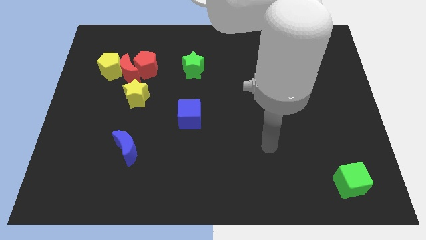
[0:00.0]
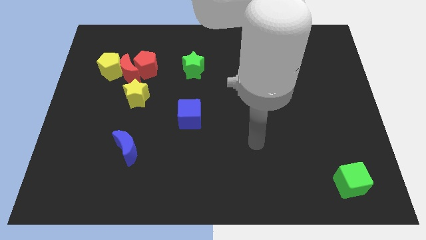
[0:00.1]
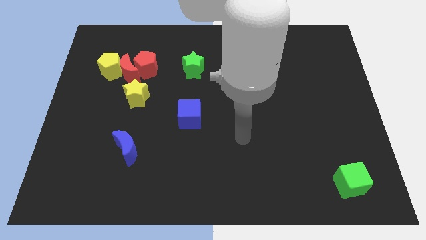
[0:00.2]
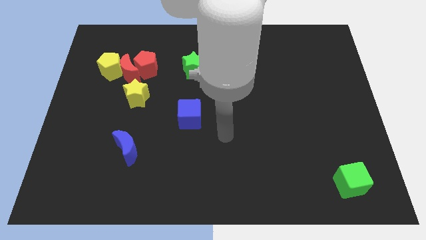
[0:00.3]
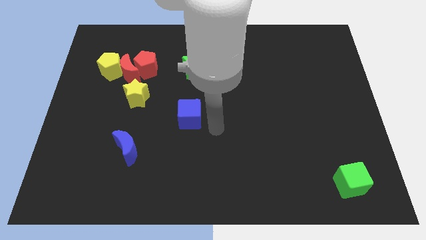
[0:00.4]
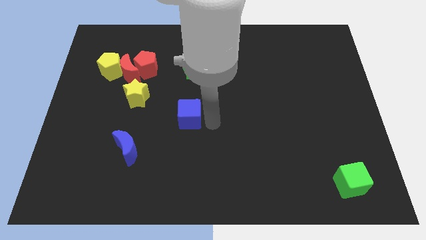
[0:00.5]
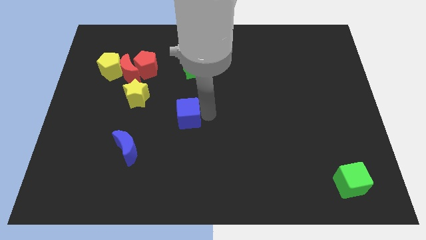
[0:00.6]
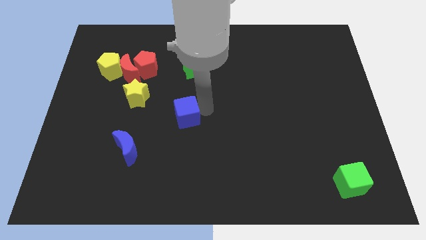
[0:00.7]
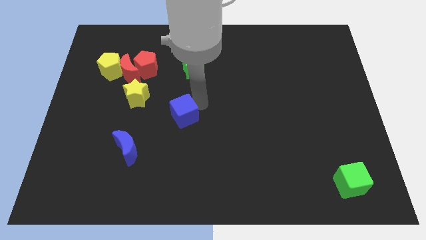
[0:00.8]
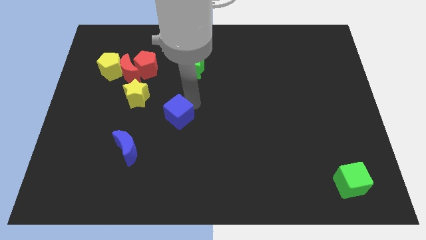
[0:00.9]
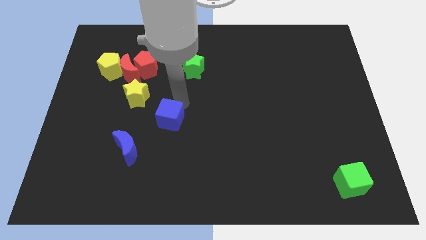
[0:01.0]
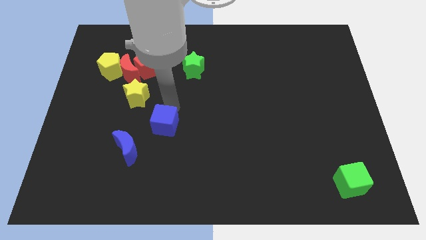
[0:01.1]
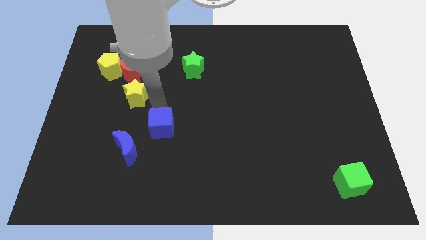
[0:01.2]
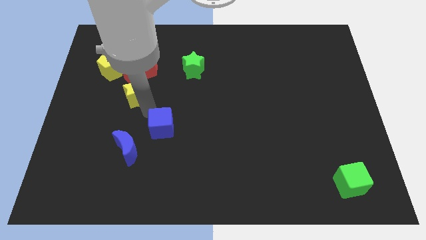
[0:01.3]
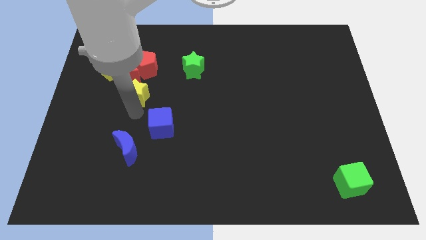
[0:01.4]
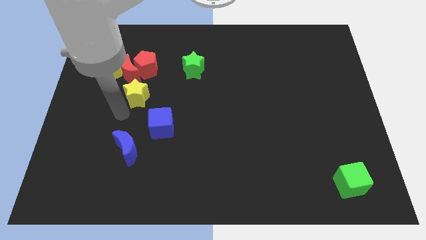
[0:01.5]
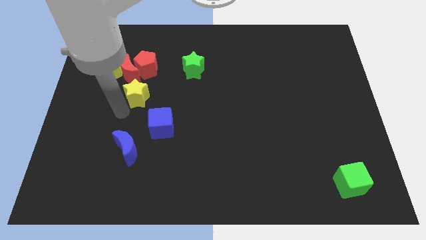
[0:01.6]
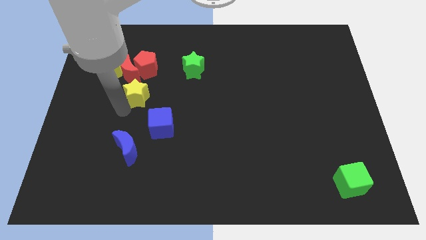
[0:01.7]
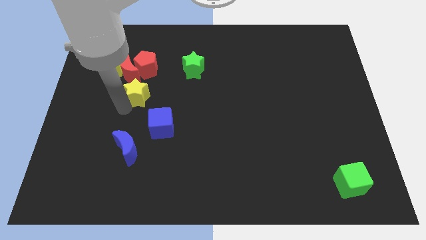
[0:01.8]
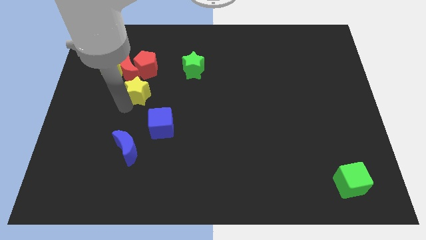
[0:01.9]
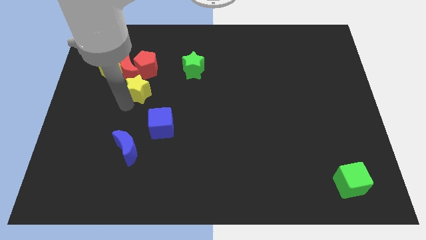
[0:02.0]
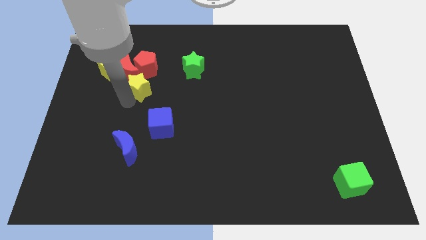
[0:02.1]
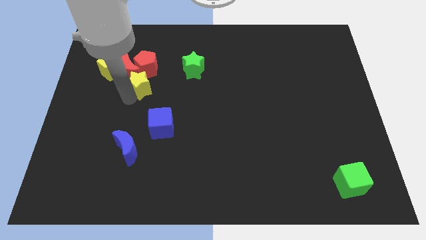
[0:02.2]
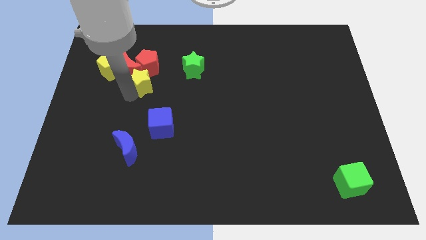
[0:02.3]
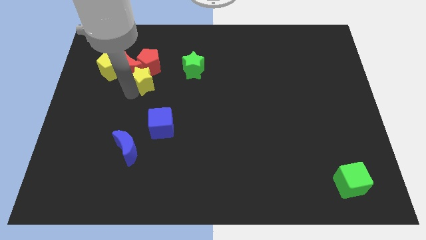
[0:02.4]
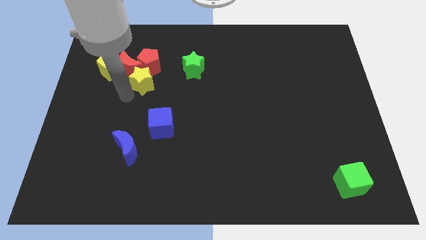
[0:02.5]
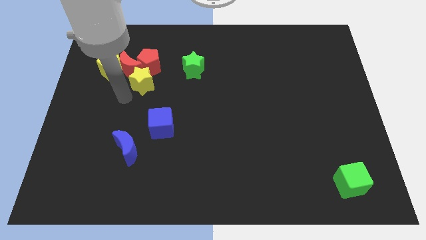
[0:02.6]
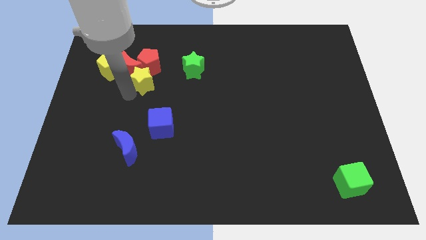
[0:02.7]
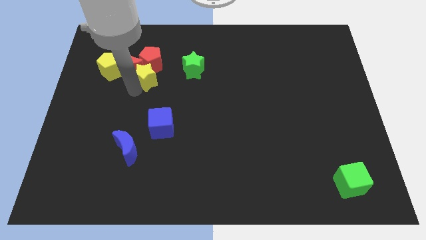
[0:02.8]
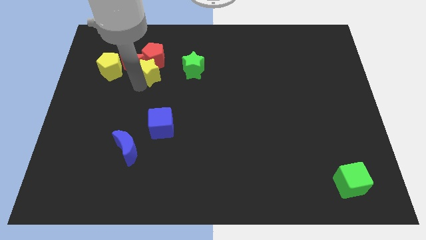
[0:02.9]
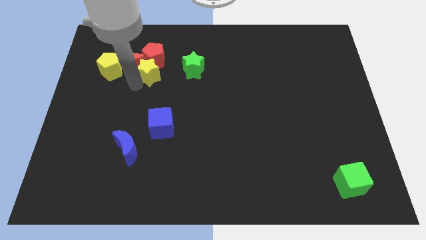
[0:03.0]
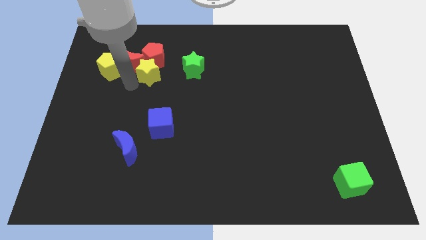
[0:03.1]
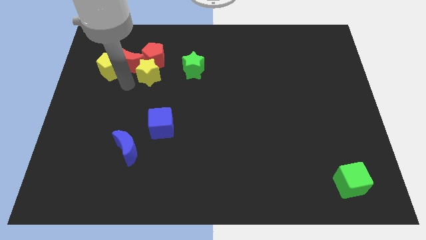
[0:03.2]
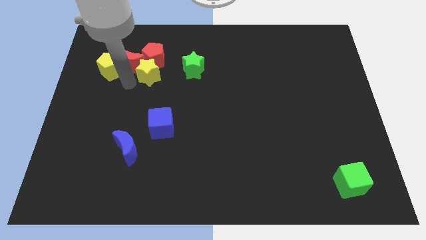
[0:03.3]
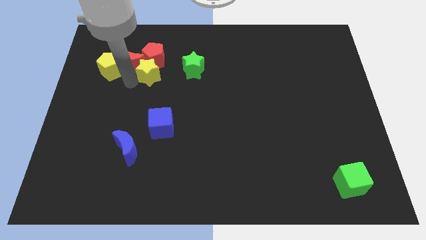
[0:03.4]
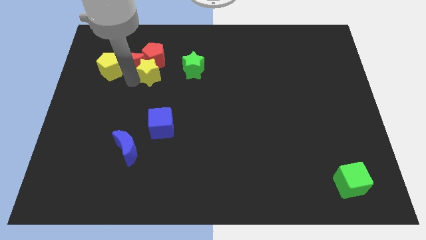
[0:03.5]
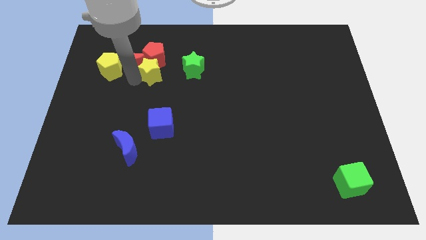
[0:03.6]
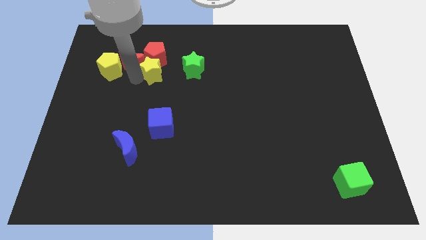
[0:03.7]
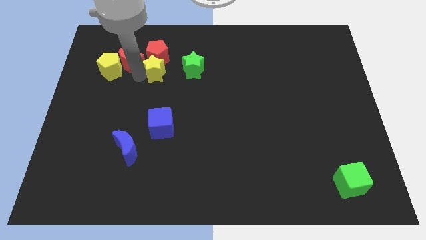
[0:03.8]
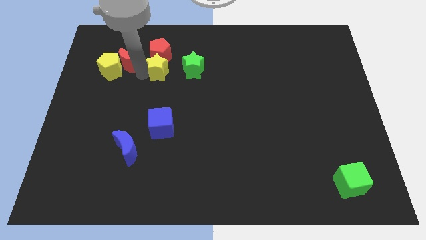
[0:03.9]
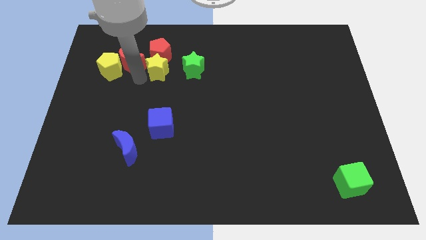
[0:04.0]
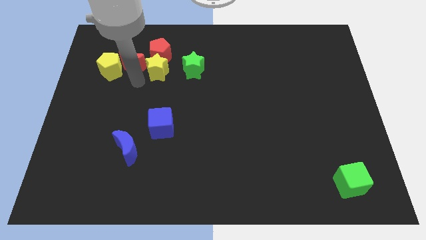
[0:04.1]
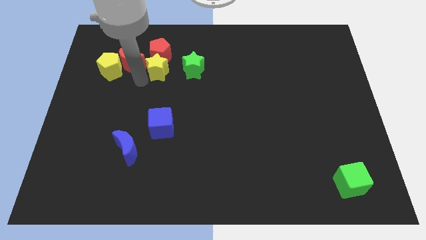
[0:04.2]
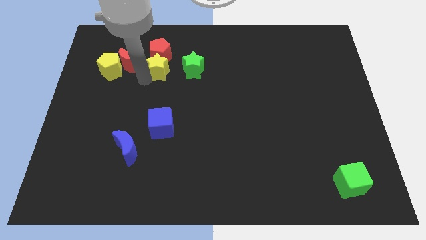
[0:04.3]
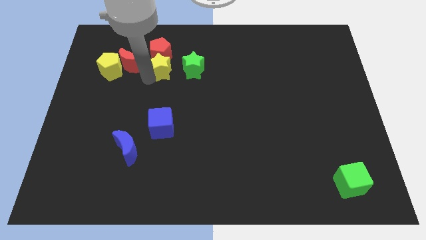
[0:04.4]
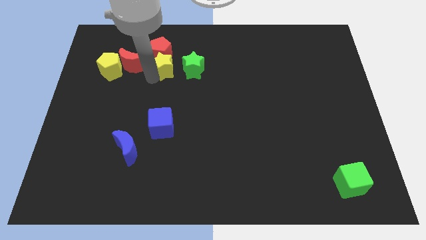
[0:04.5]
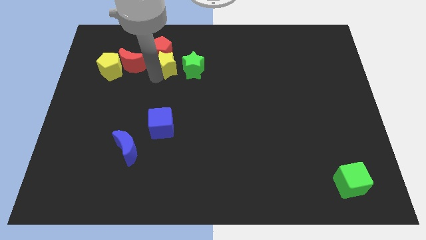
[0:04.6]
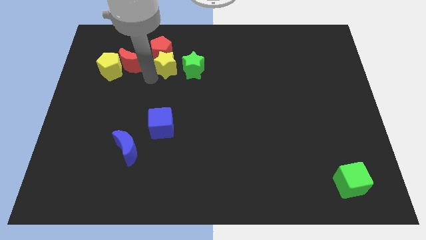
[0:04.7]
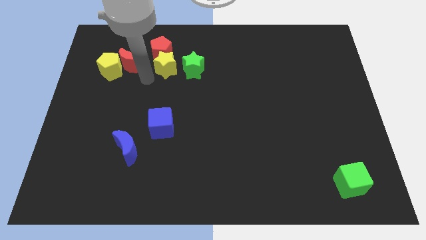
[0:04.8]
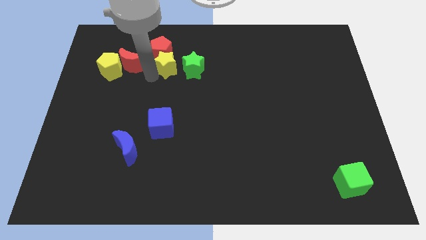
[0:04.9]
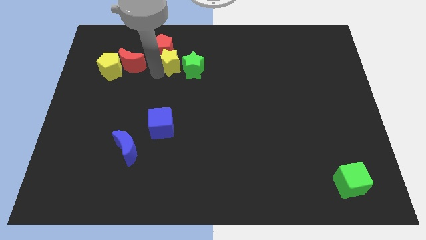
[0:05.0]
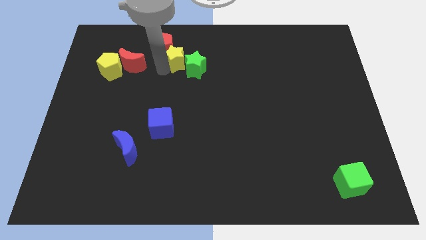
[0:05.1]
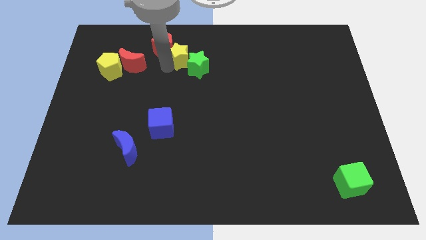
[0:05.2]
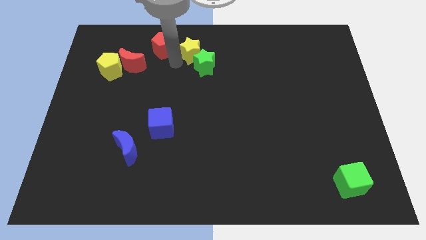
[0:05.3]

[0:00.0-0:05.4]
slide the yellow star to the top

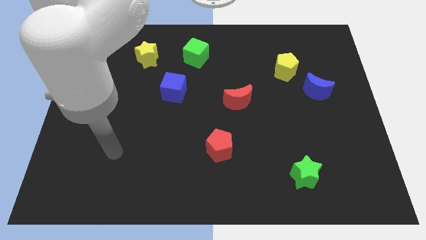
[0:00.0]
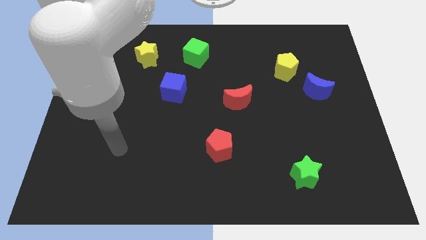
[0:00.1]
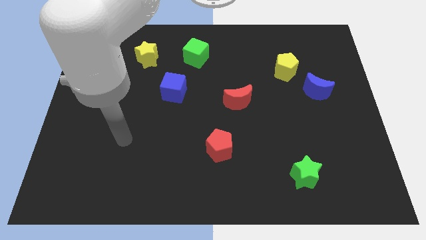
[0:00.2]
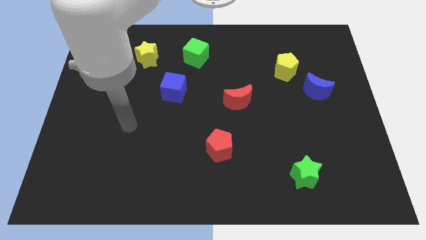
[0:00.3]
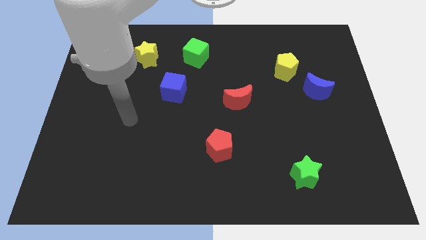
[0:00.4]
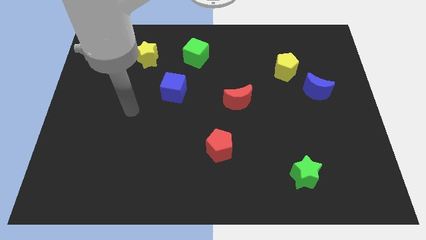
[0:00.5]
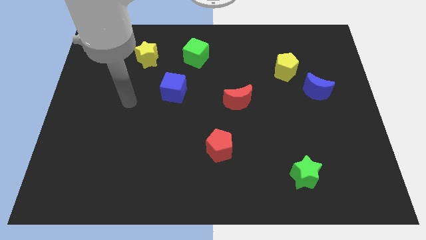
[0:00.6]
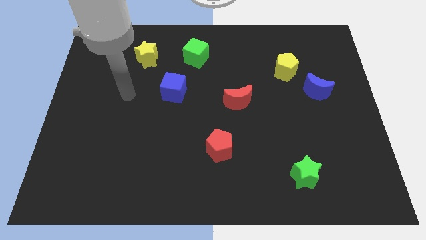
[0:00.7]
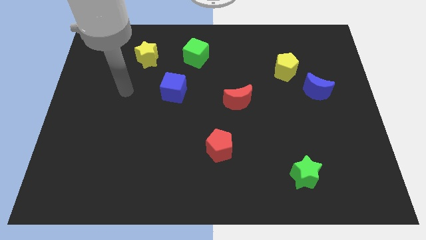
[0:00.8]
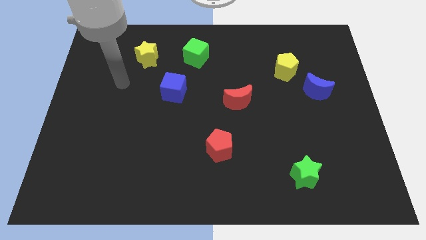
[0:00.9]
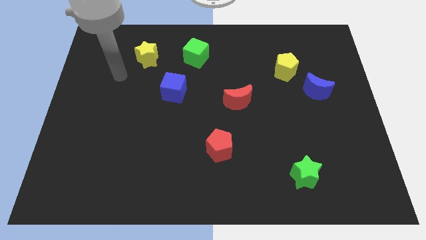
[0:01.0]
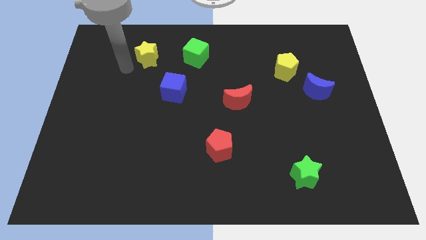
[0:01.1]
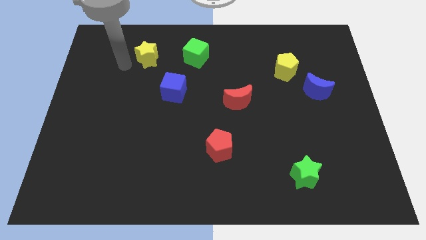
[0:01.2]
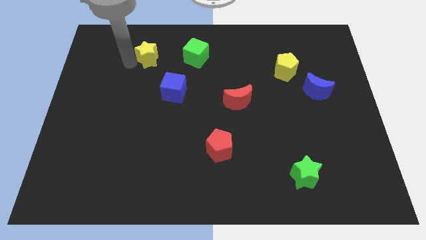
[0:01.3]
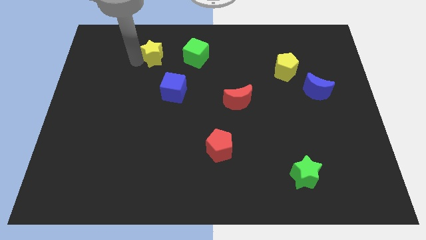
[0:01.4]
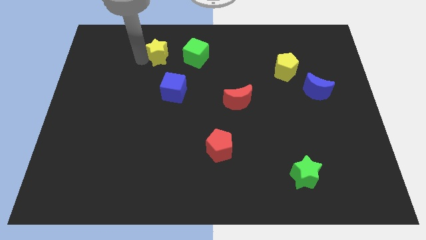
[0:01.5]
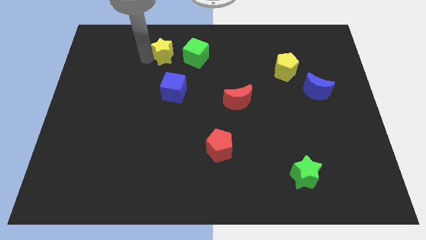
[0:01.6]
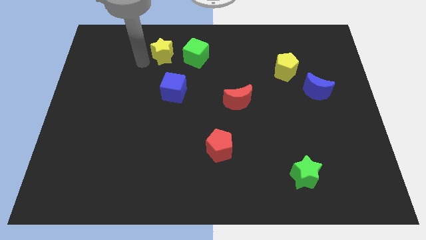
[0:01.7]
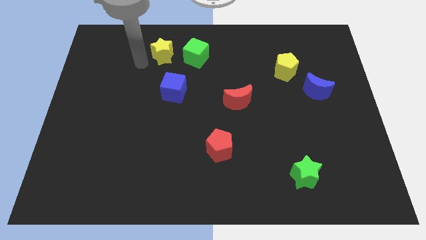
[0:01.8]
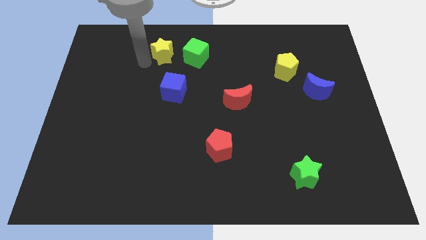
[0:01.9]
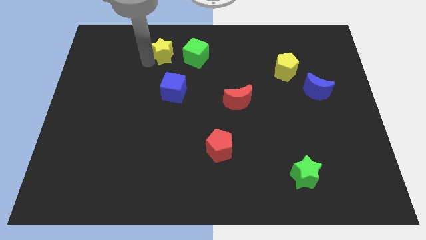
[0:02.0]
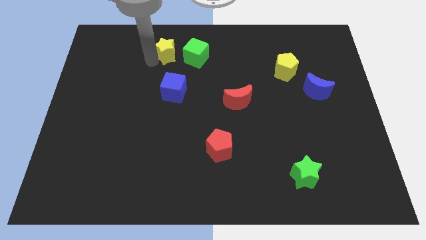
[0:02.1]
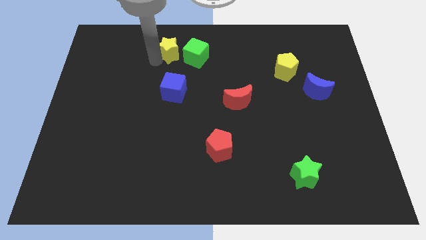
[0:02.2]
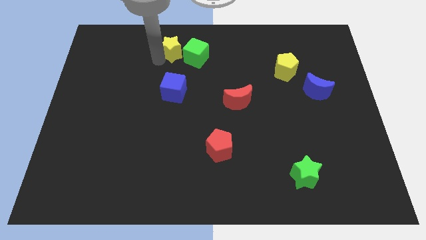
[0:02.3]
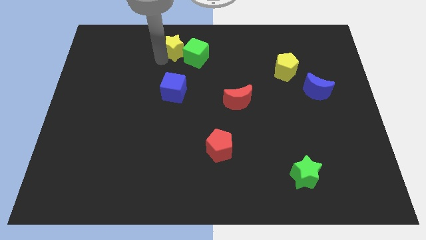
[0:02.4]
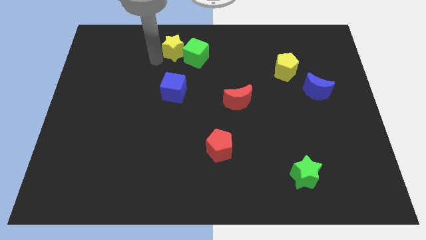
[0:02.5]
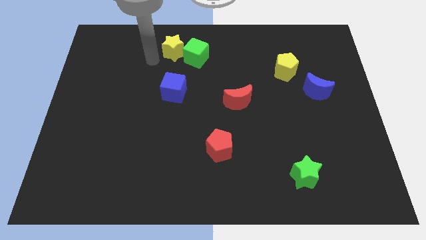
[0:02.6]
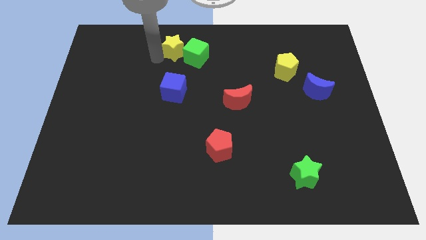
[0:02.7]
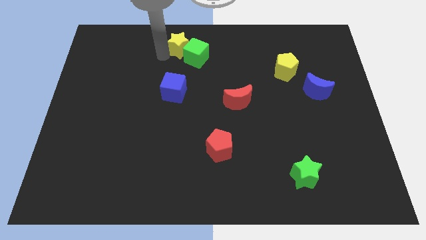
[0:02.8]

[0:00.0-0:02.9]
move the yellow star to the top
